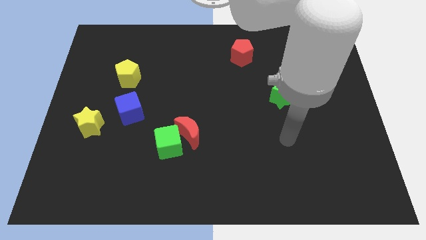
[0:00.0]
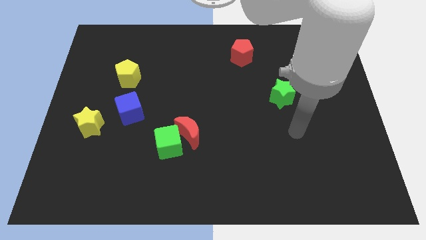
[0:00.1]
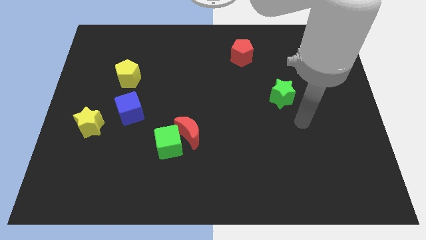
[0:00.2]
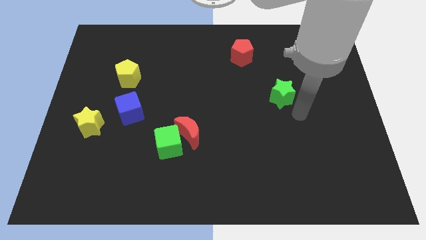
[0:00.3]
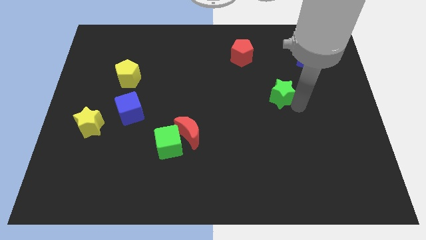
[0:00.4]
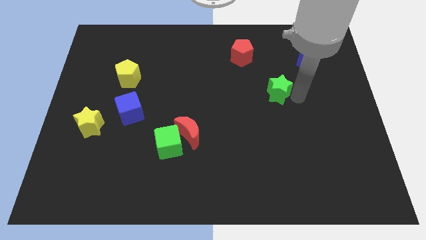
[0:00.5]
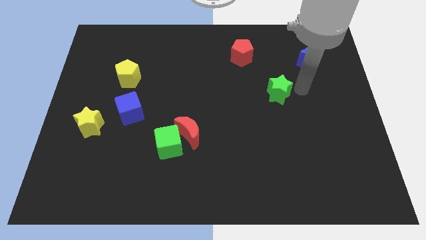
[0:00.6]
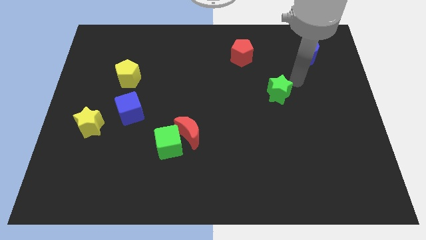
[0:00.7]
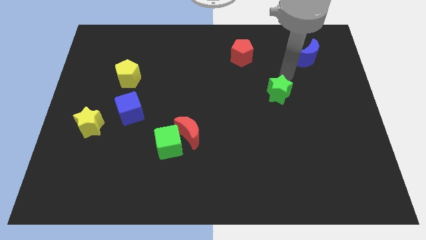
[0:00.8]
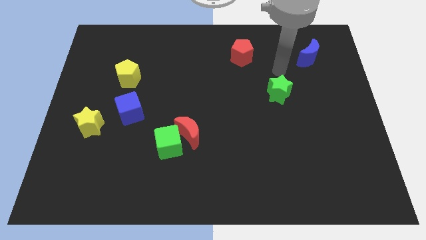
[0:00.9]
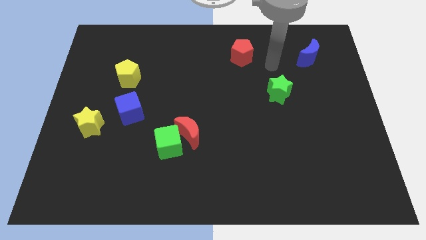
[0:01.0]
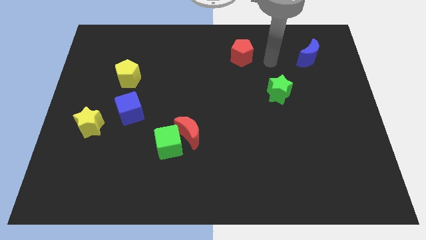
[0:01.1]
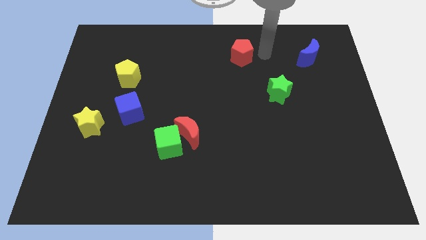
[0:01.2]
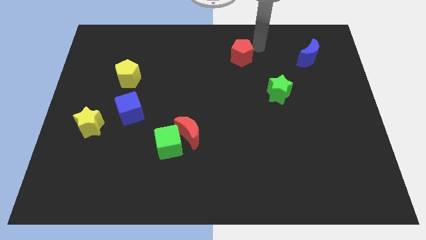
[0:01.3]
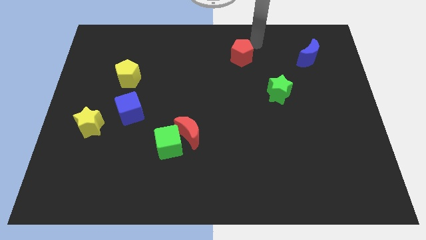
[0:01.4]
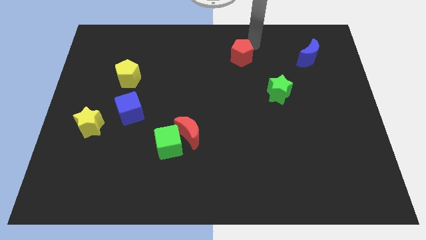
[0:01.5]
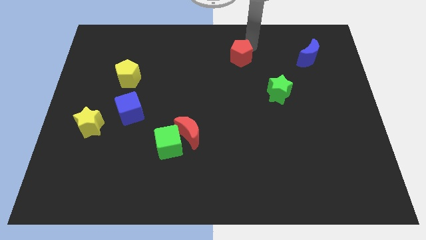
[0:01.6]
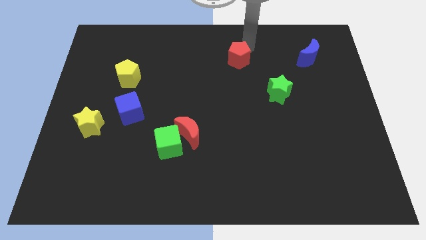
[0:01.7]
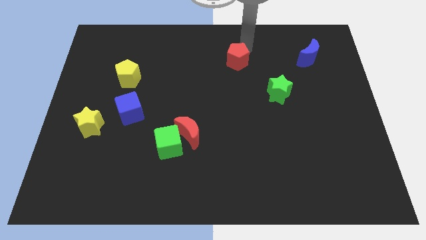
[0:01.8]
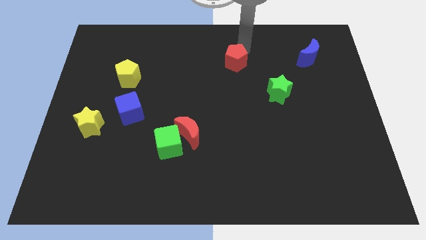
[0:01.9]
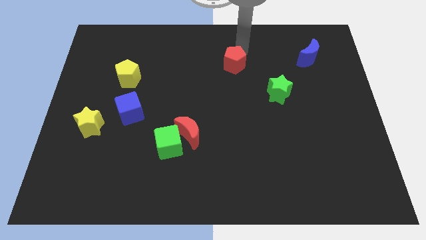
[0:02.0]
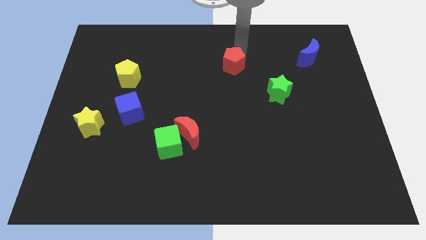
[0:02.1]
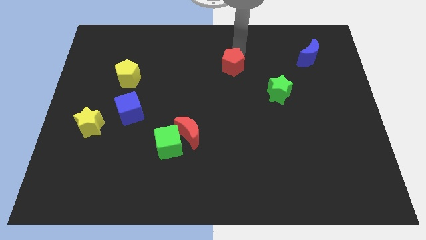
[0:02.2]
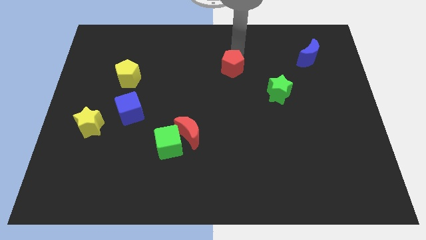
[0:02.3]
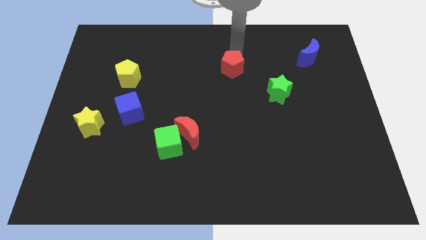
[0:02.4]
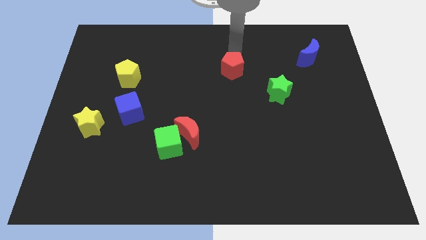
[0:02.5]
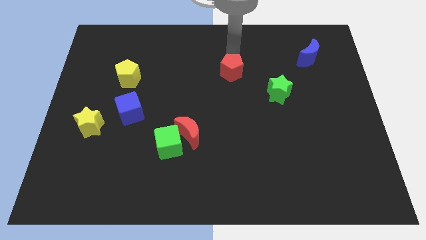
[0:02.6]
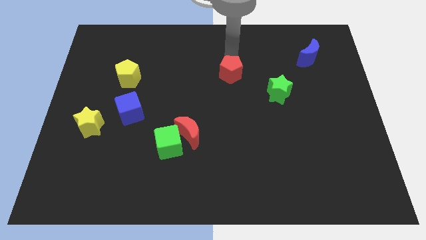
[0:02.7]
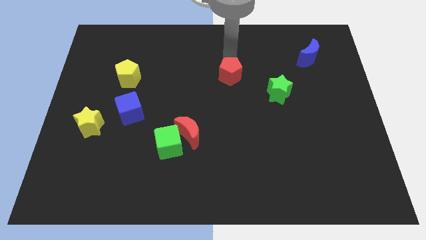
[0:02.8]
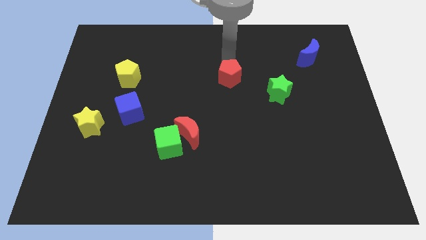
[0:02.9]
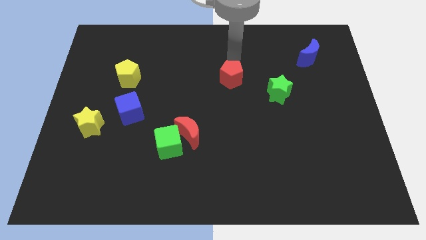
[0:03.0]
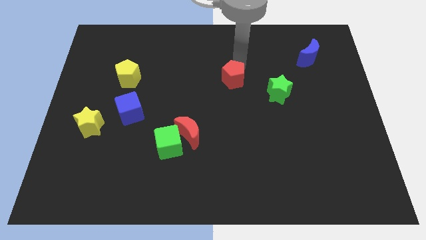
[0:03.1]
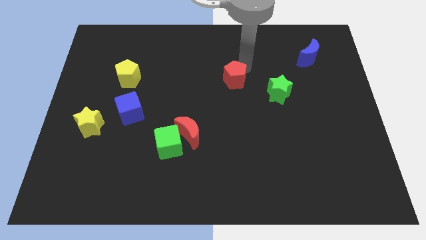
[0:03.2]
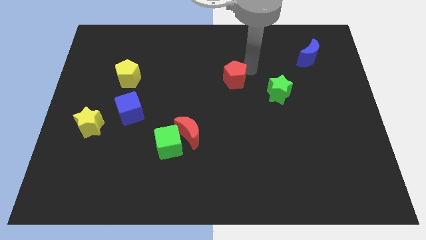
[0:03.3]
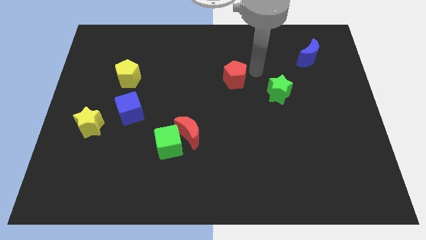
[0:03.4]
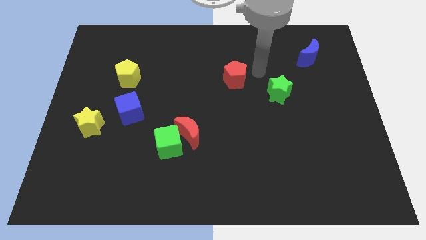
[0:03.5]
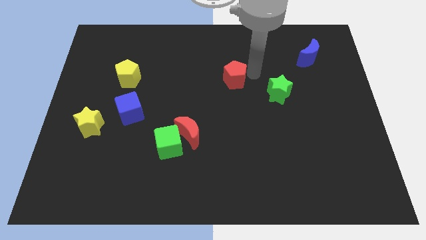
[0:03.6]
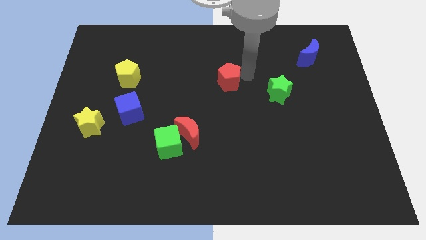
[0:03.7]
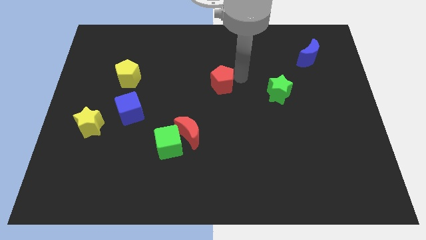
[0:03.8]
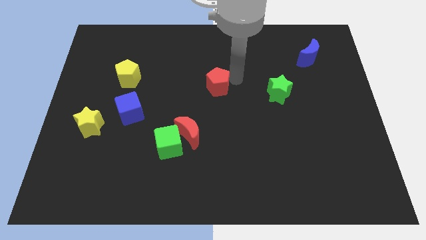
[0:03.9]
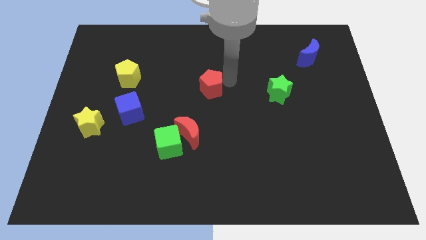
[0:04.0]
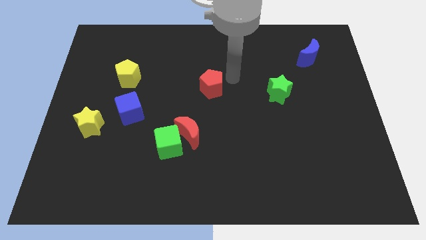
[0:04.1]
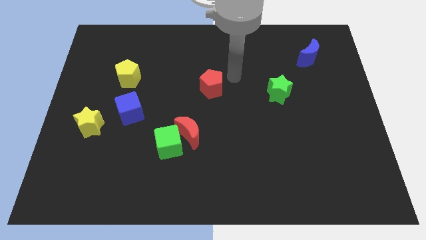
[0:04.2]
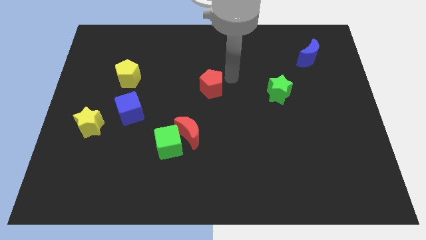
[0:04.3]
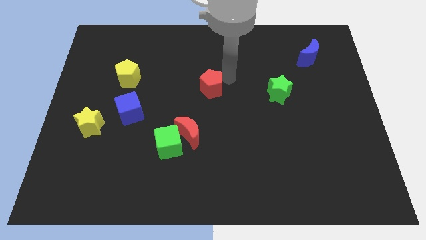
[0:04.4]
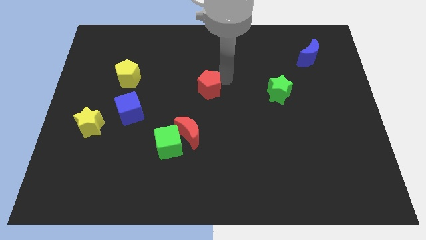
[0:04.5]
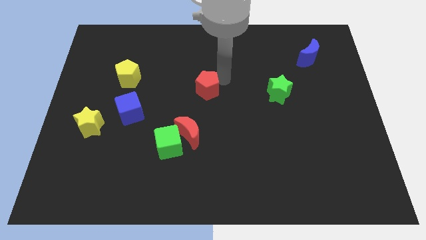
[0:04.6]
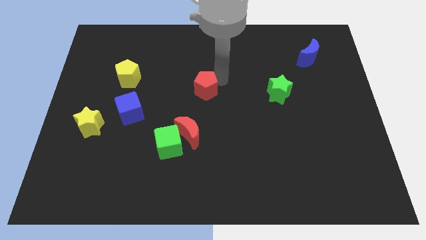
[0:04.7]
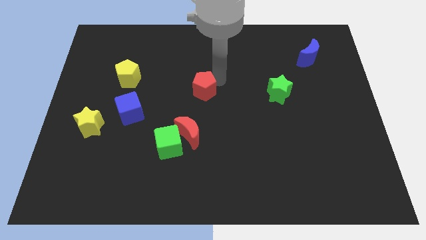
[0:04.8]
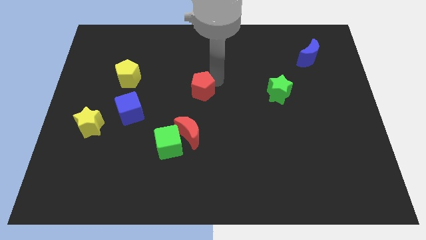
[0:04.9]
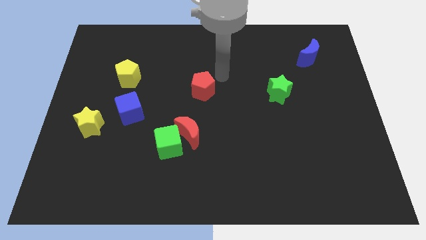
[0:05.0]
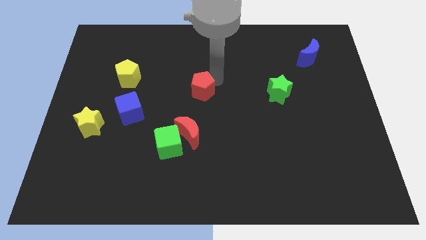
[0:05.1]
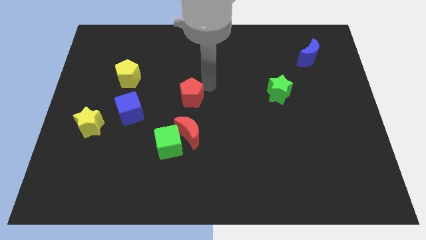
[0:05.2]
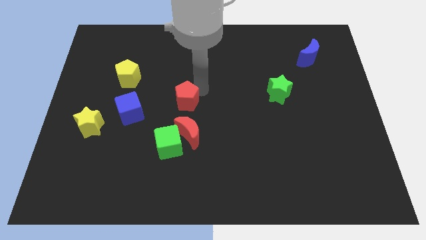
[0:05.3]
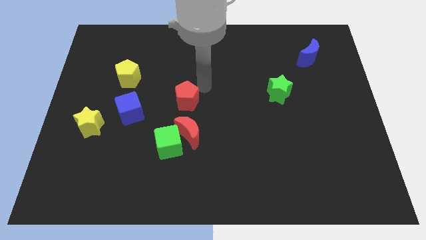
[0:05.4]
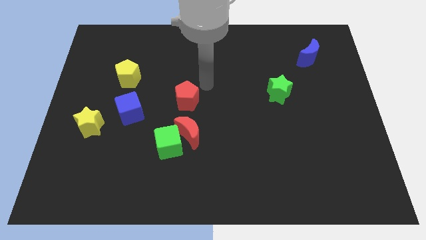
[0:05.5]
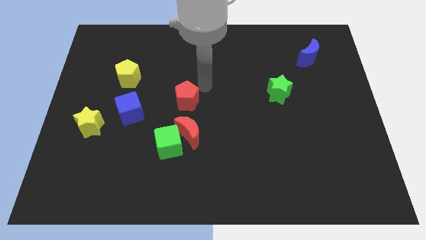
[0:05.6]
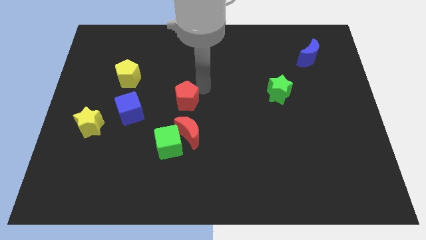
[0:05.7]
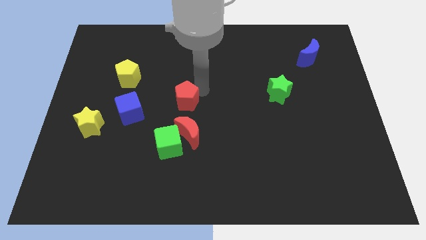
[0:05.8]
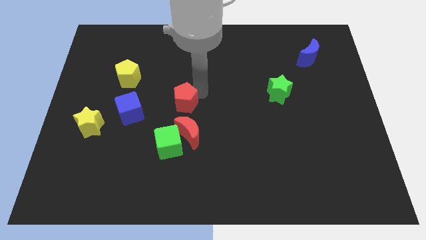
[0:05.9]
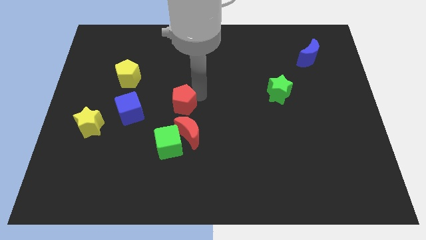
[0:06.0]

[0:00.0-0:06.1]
move the red pentagon to the top left of the red moon
